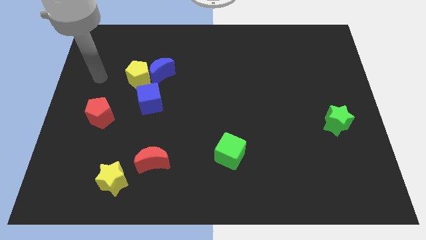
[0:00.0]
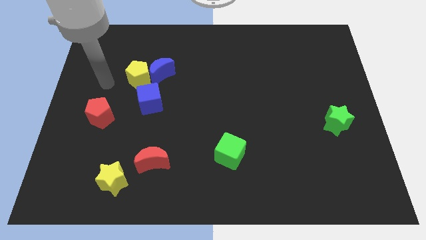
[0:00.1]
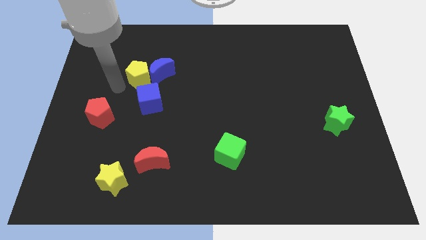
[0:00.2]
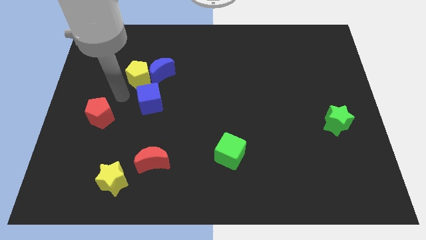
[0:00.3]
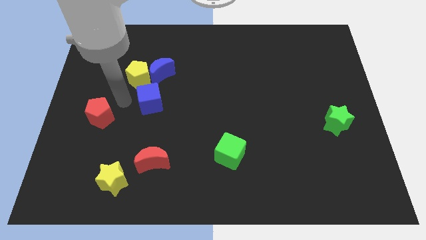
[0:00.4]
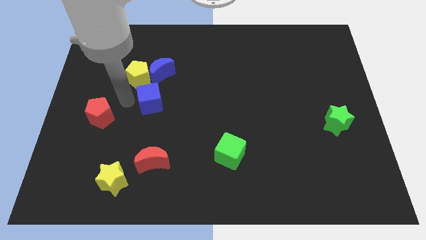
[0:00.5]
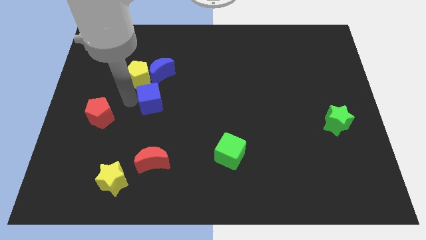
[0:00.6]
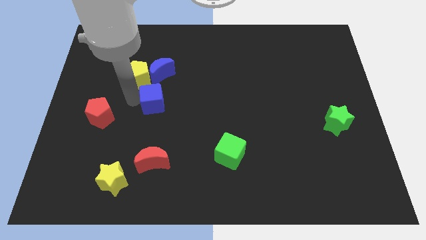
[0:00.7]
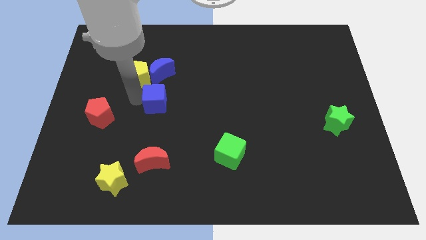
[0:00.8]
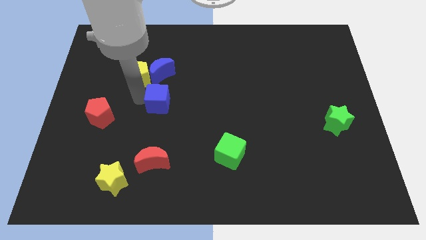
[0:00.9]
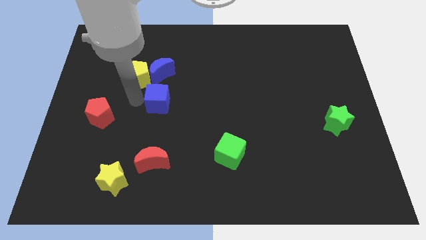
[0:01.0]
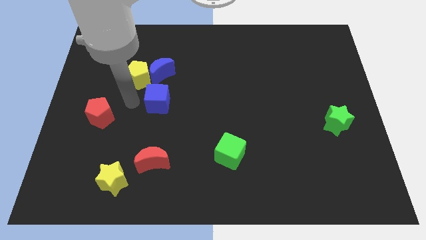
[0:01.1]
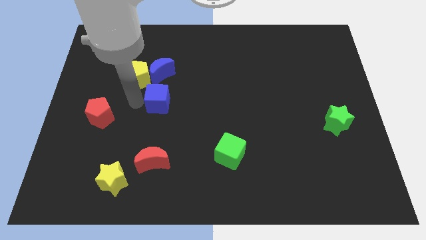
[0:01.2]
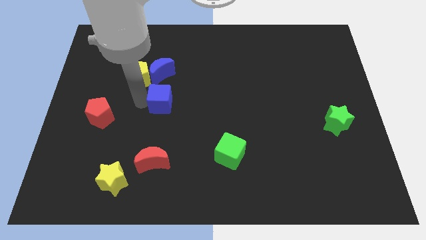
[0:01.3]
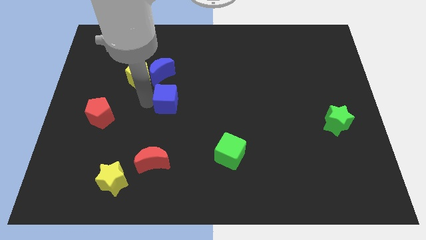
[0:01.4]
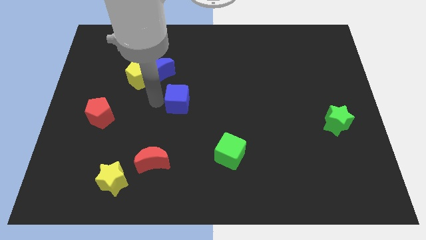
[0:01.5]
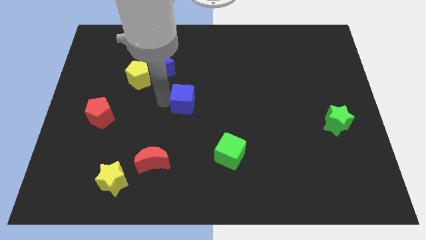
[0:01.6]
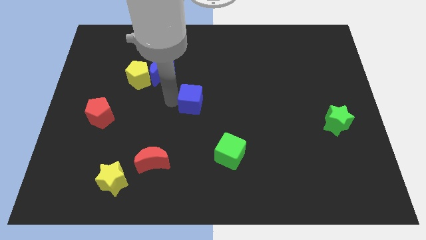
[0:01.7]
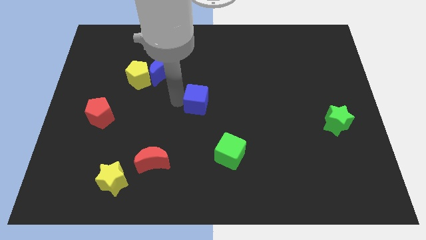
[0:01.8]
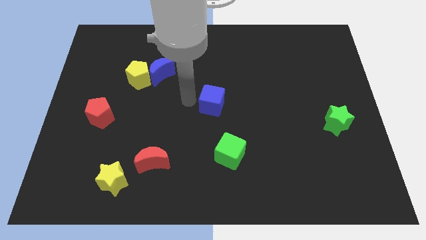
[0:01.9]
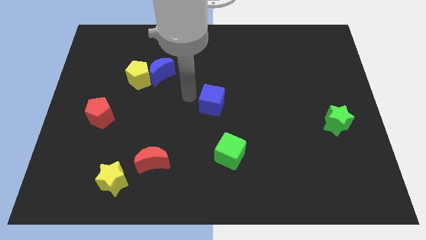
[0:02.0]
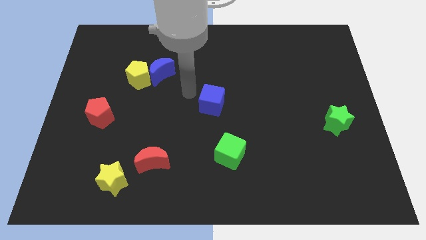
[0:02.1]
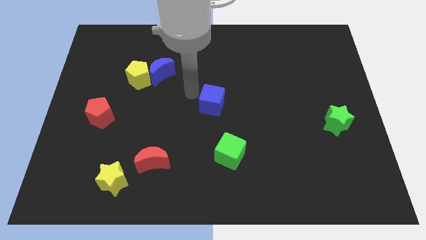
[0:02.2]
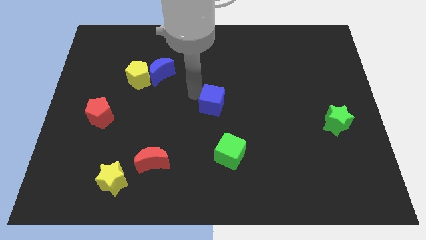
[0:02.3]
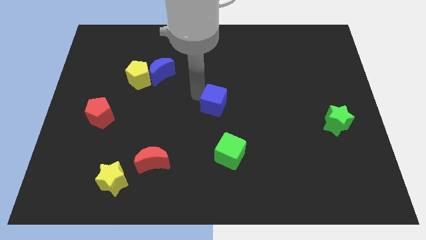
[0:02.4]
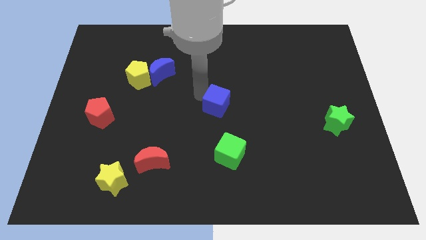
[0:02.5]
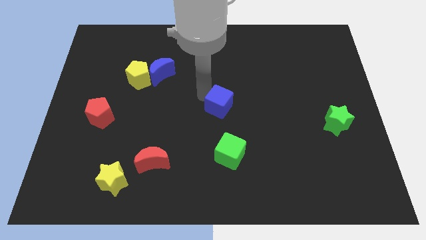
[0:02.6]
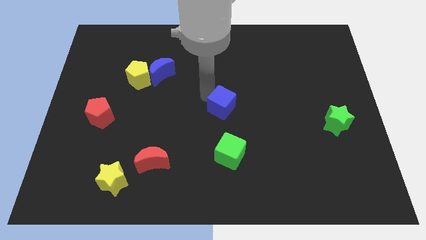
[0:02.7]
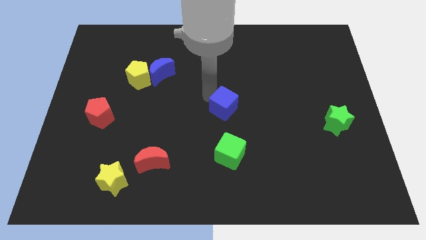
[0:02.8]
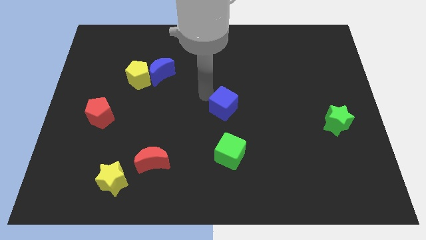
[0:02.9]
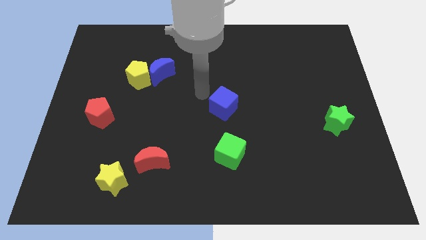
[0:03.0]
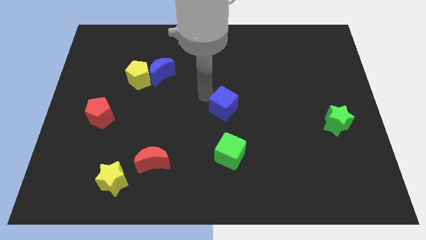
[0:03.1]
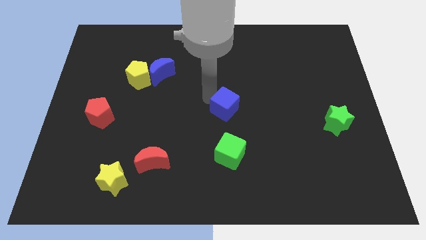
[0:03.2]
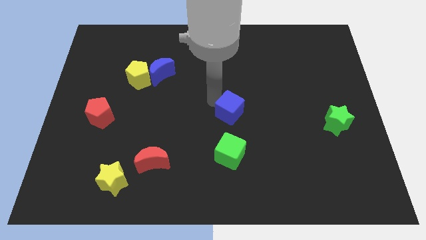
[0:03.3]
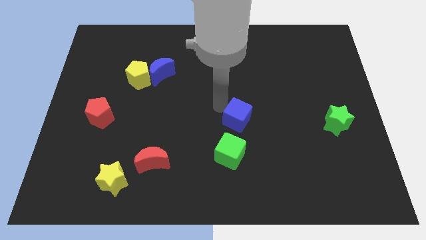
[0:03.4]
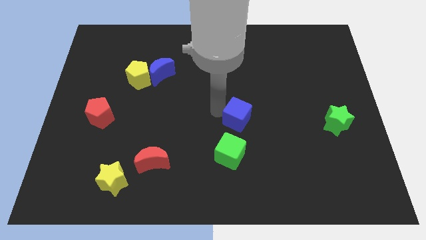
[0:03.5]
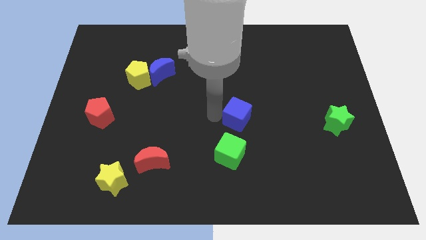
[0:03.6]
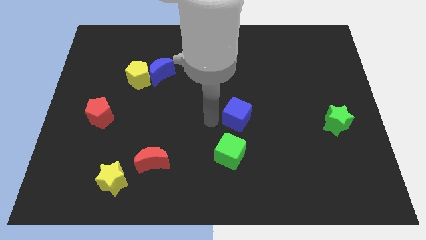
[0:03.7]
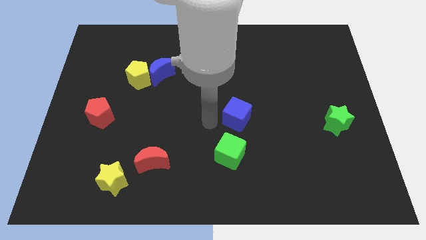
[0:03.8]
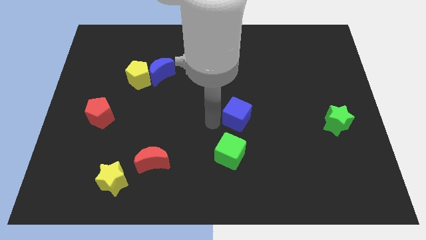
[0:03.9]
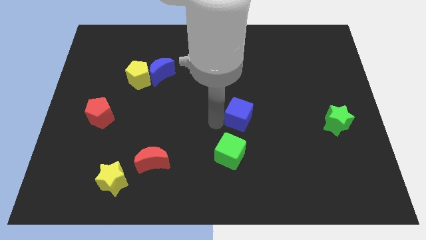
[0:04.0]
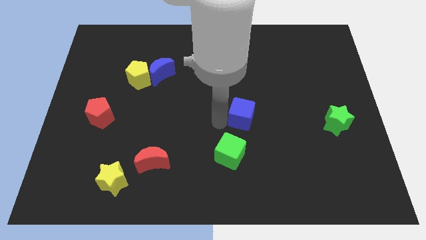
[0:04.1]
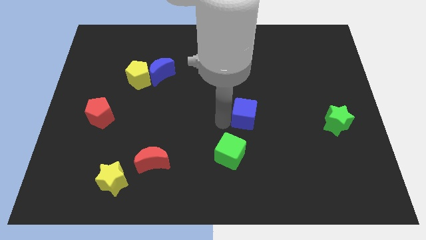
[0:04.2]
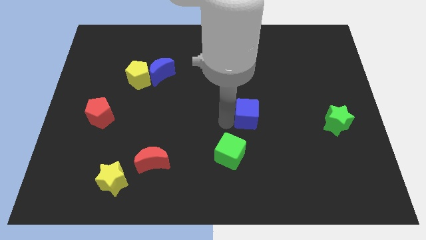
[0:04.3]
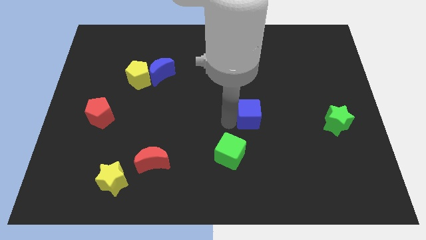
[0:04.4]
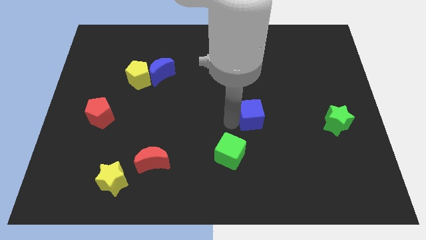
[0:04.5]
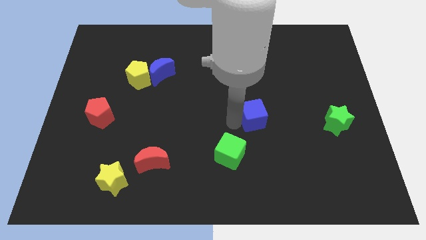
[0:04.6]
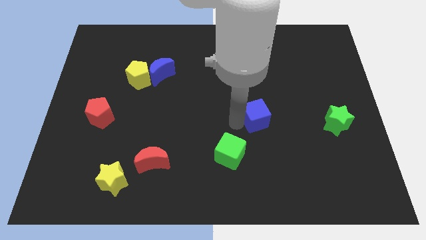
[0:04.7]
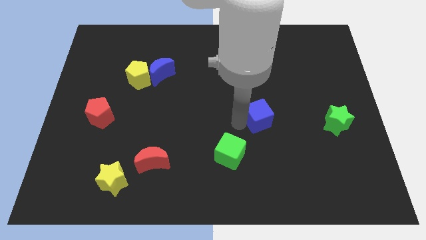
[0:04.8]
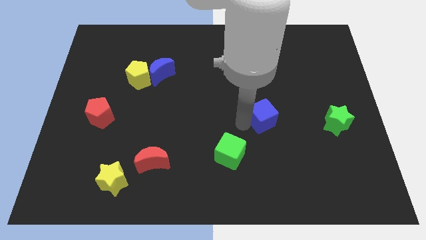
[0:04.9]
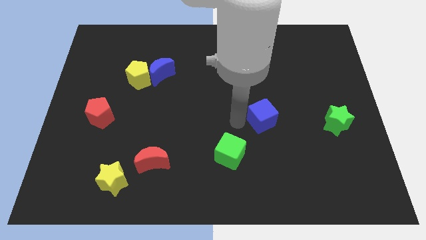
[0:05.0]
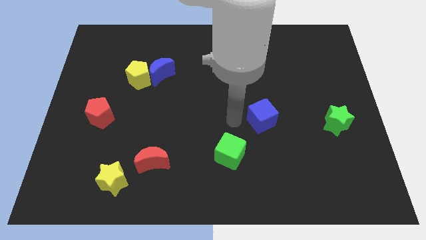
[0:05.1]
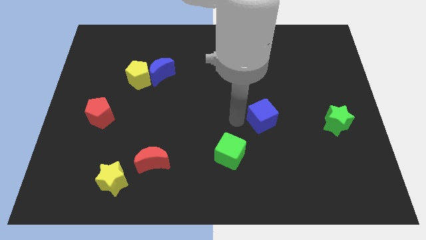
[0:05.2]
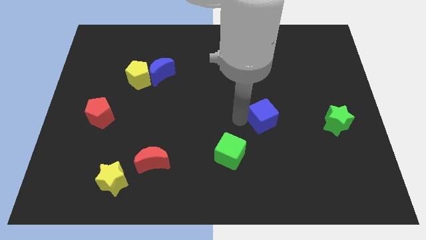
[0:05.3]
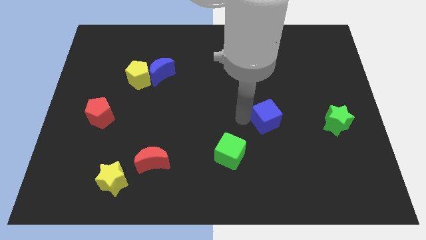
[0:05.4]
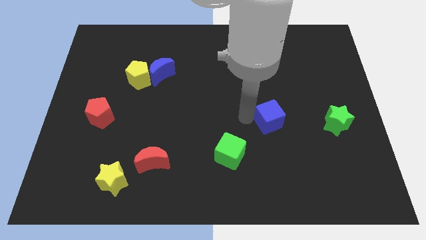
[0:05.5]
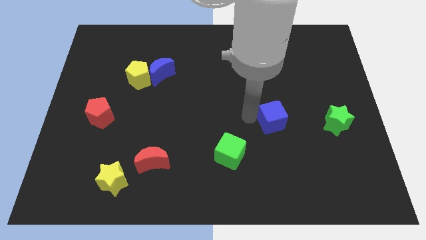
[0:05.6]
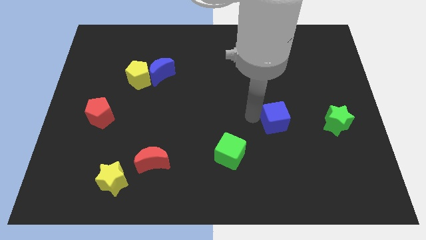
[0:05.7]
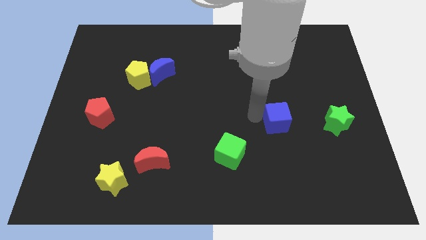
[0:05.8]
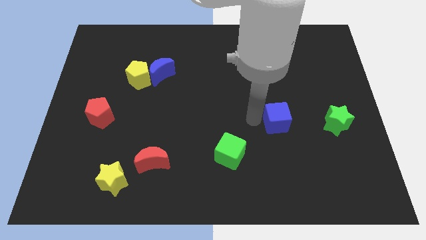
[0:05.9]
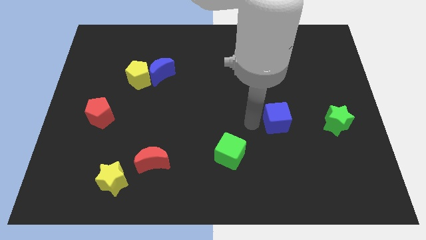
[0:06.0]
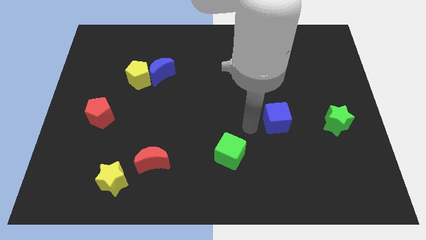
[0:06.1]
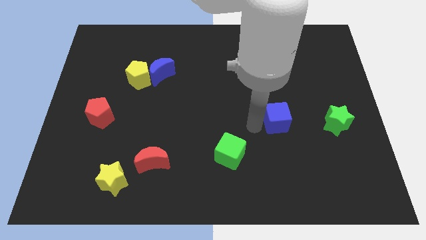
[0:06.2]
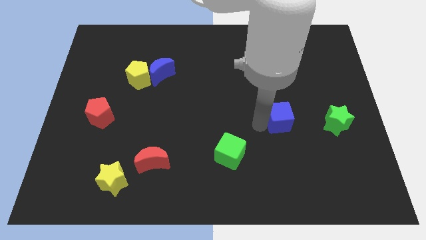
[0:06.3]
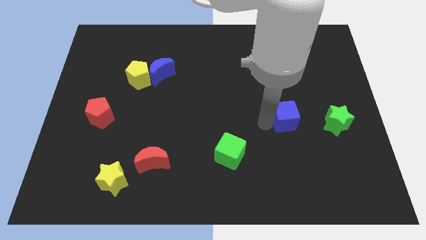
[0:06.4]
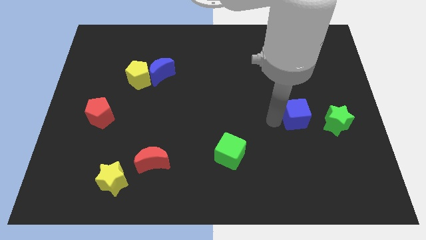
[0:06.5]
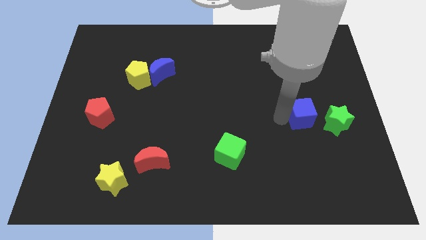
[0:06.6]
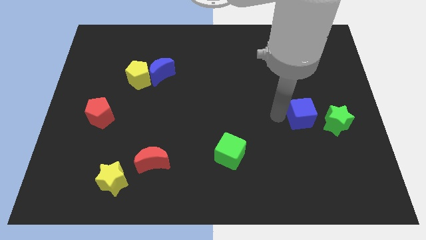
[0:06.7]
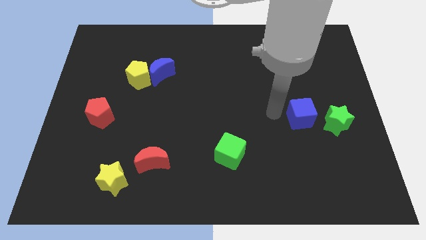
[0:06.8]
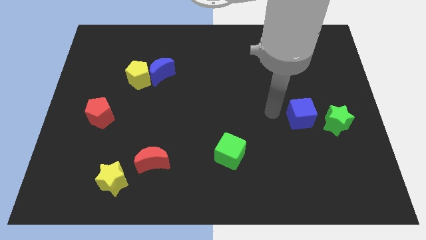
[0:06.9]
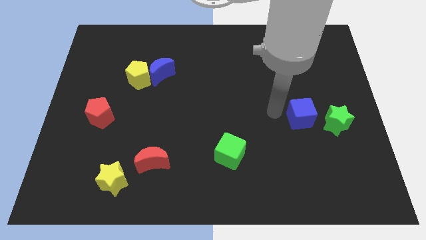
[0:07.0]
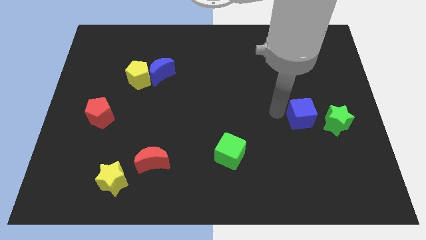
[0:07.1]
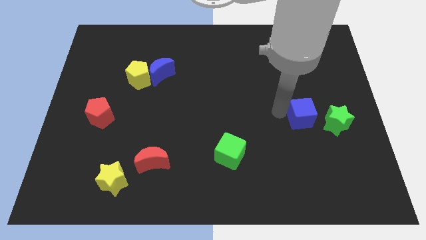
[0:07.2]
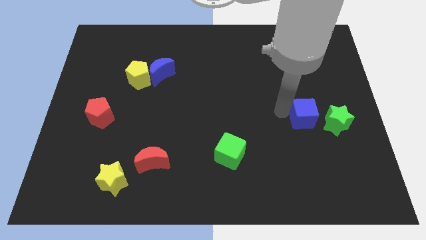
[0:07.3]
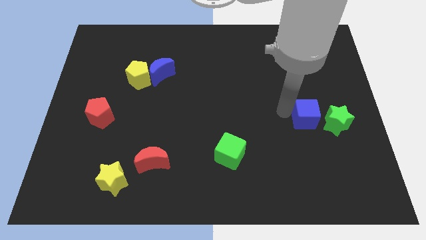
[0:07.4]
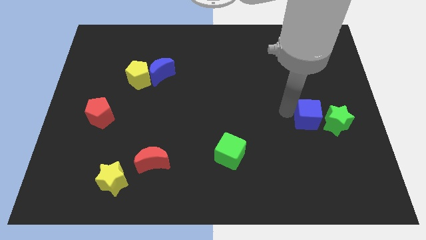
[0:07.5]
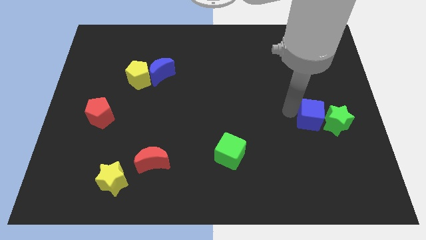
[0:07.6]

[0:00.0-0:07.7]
put the blue cube next to the green star
